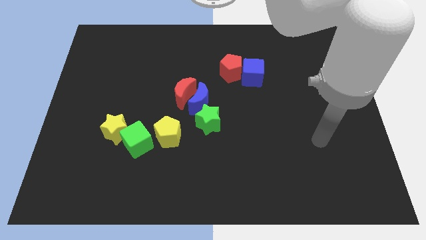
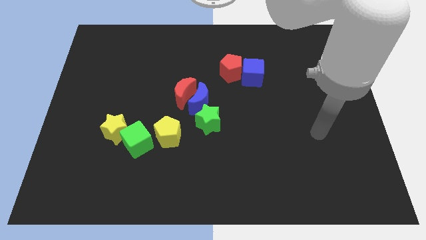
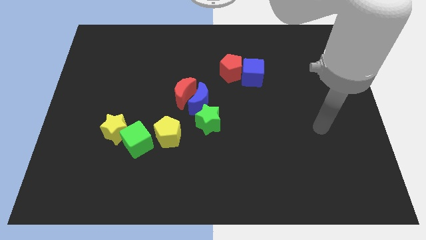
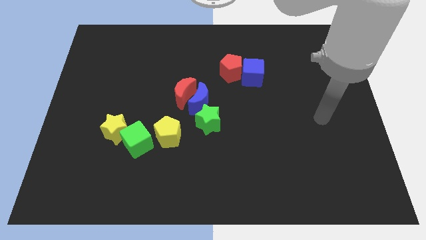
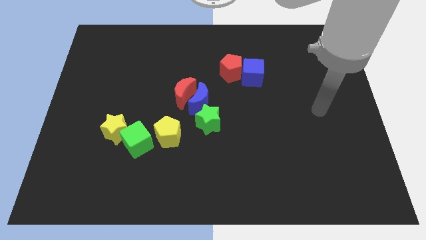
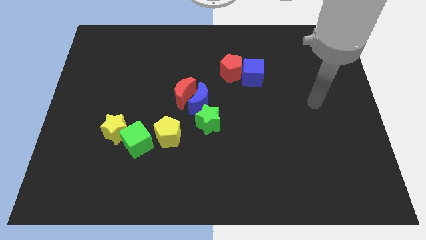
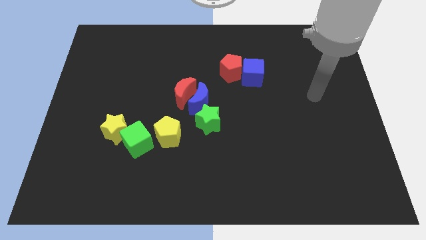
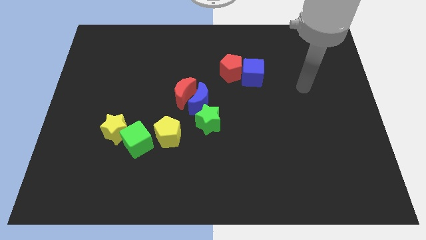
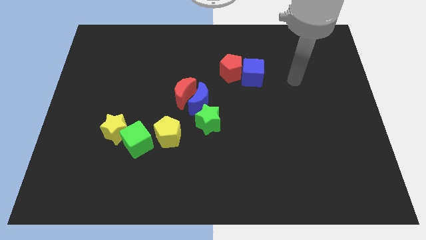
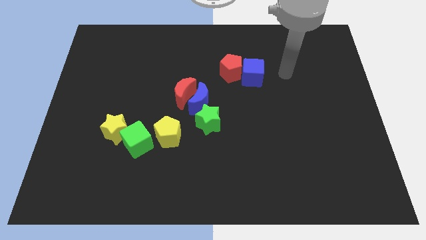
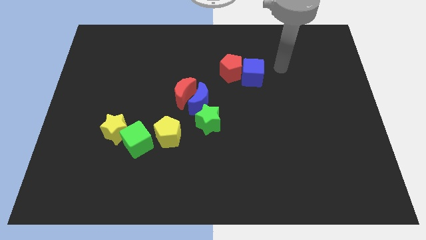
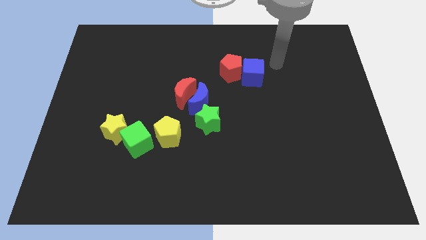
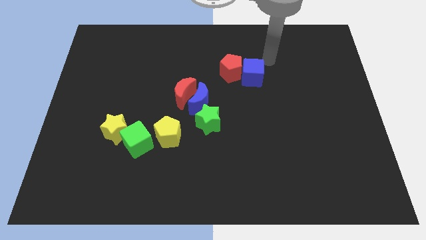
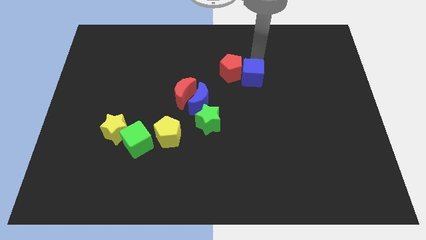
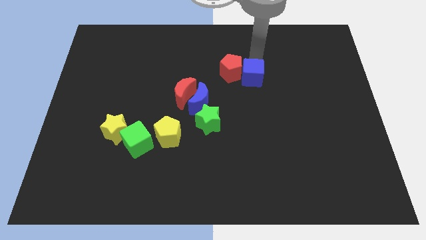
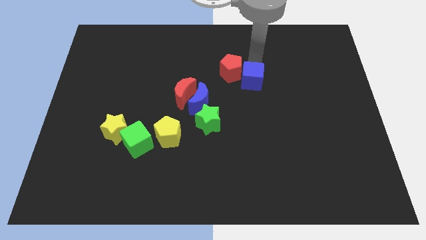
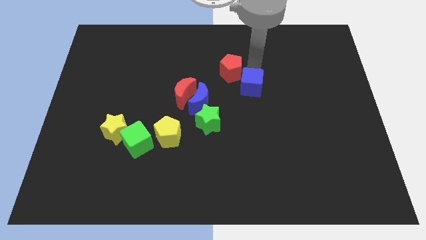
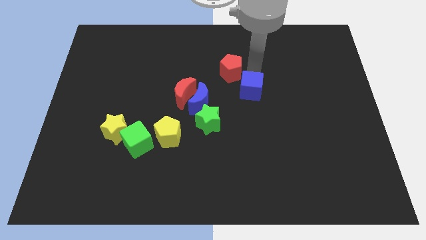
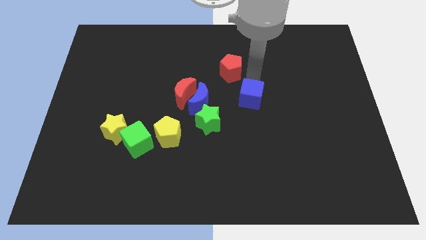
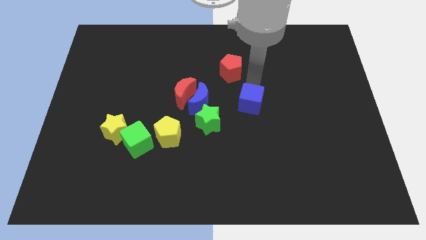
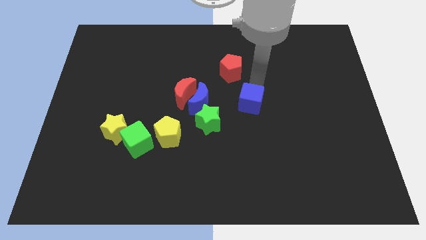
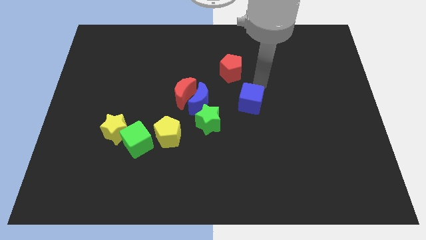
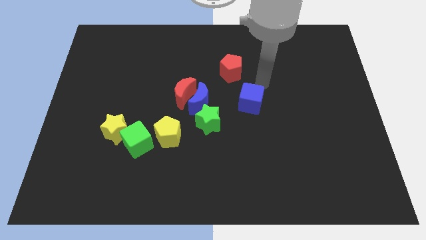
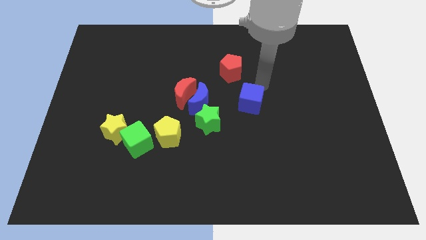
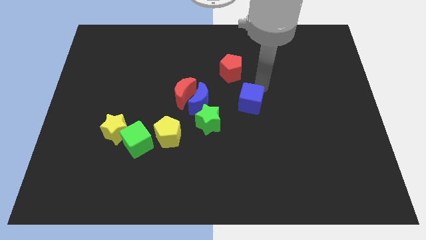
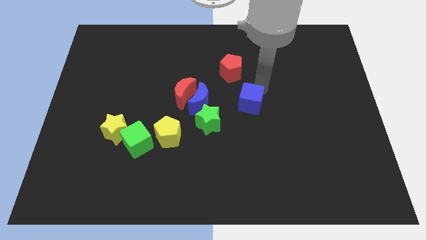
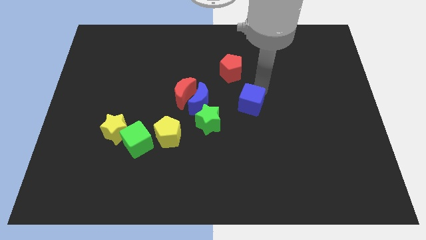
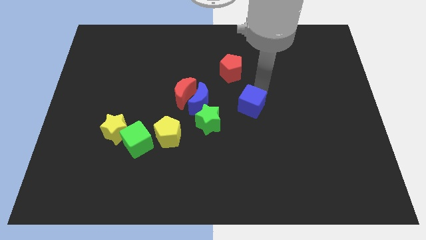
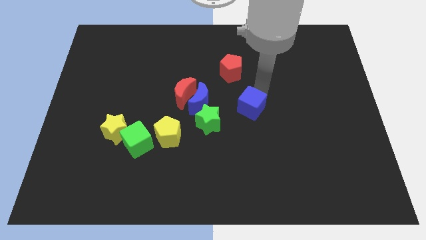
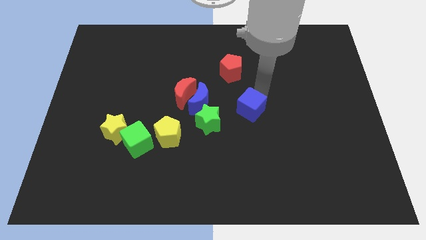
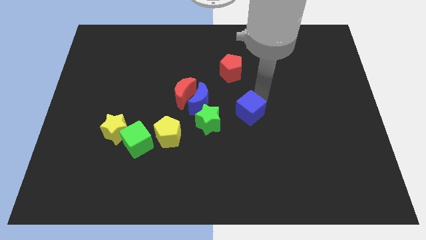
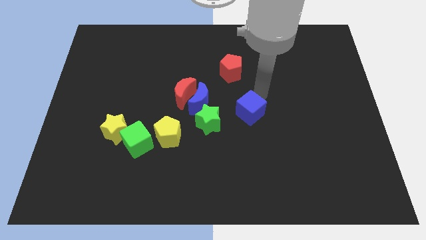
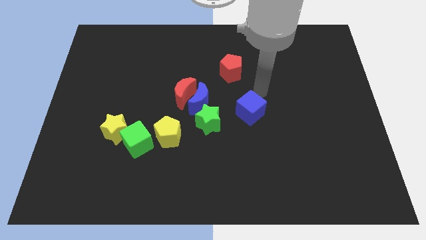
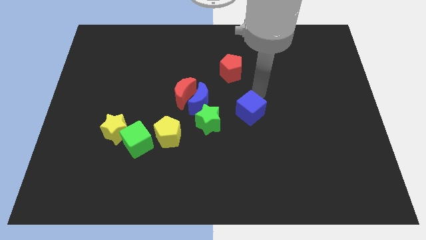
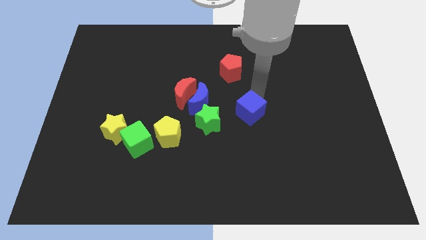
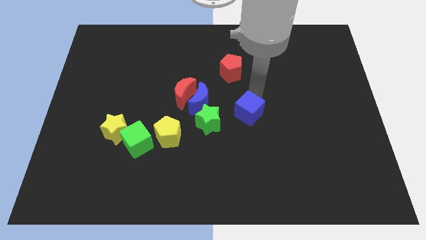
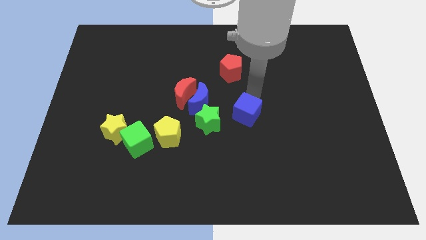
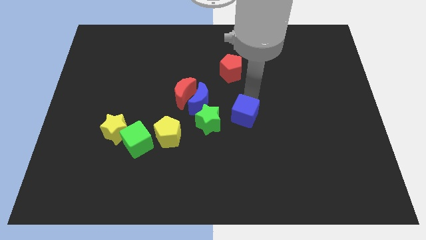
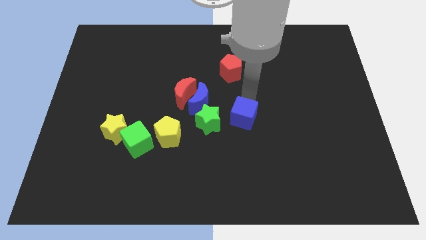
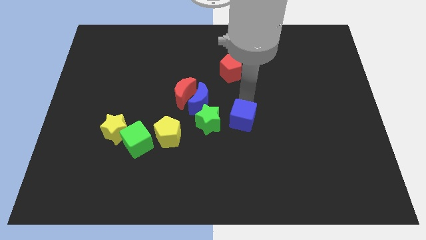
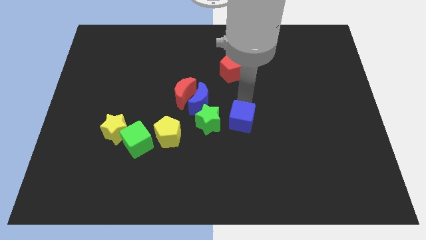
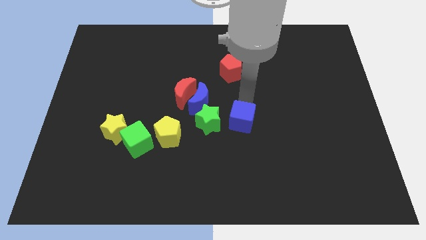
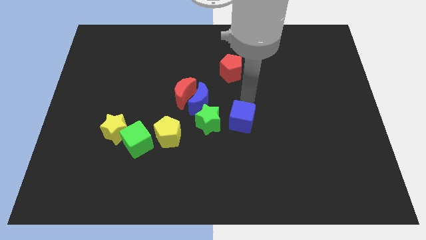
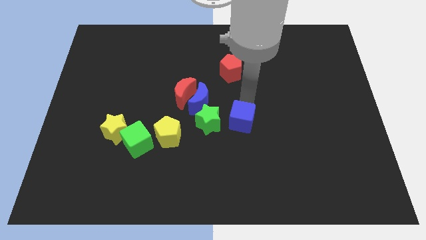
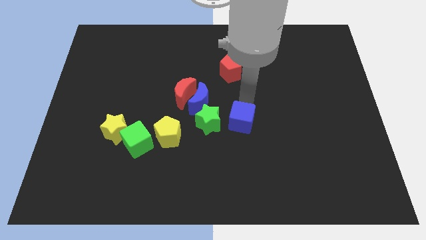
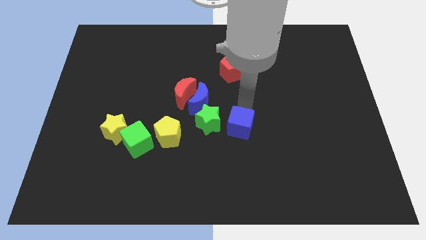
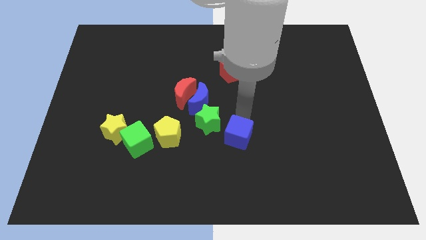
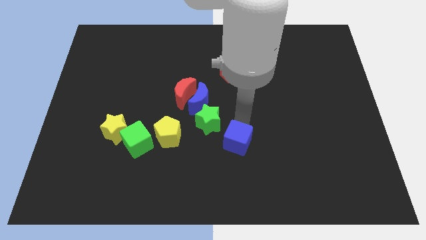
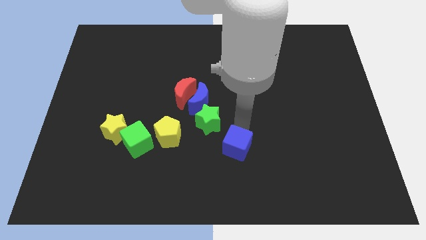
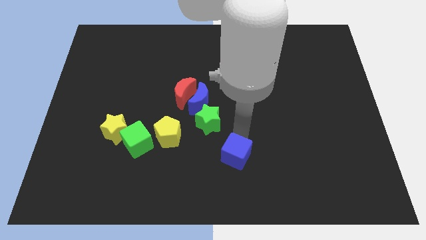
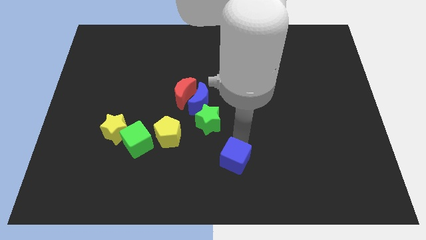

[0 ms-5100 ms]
push the blue cube to the bottom side

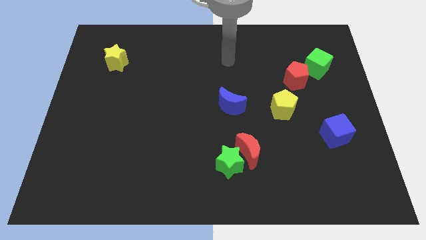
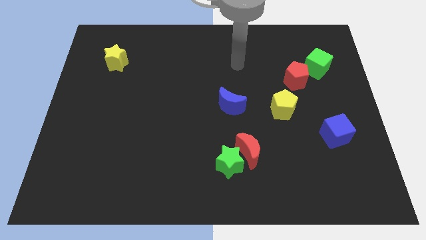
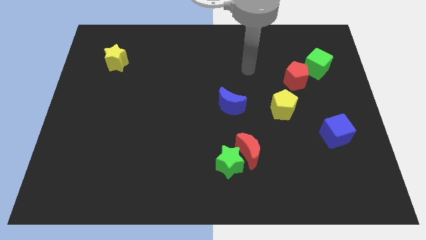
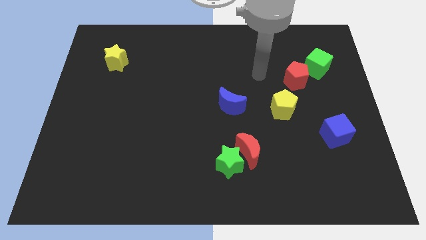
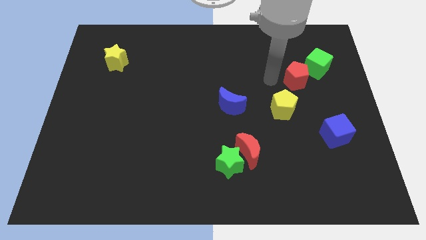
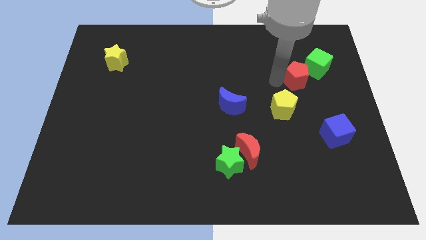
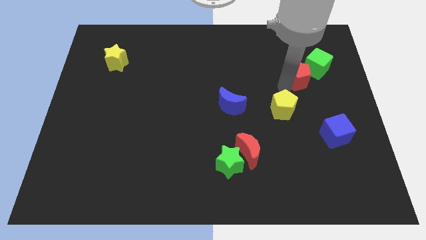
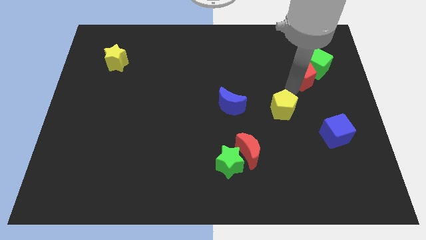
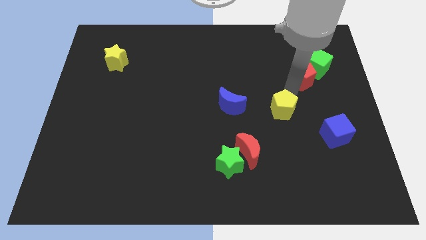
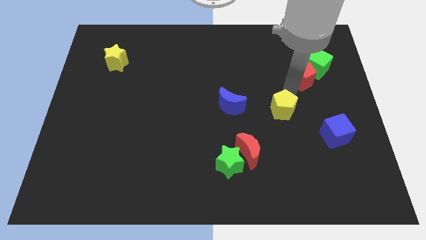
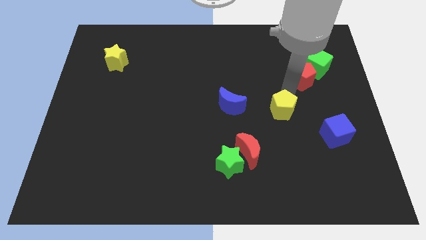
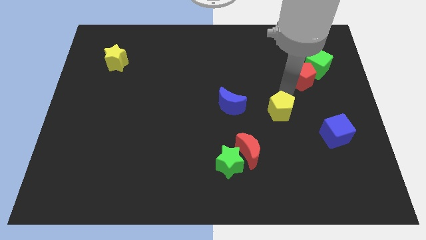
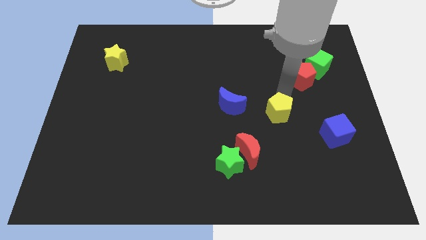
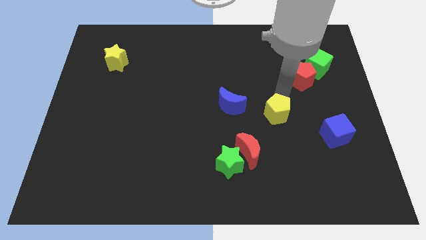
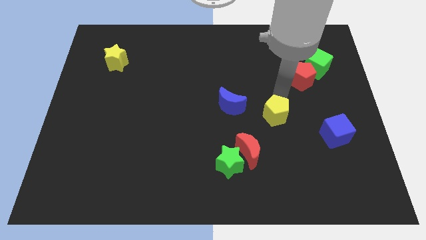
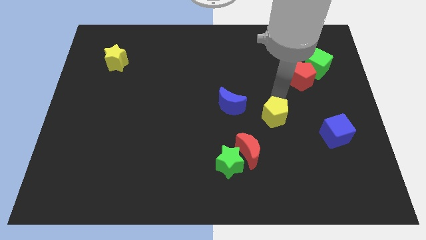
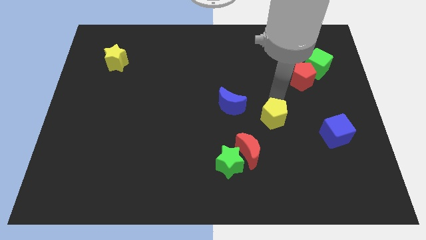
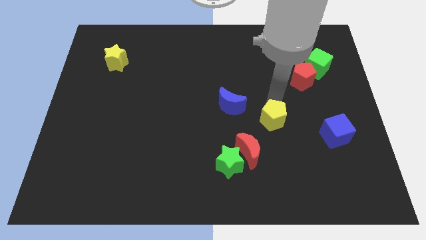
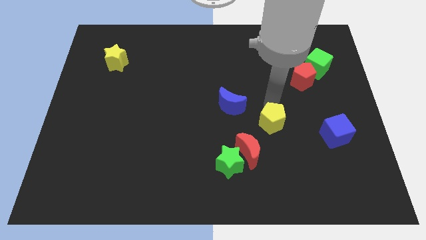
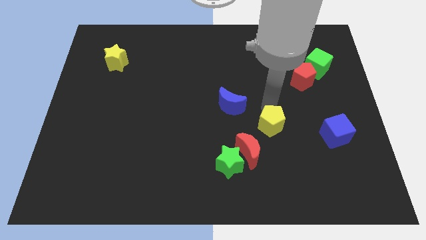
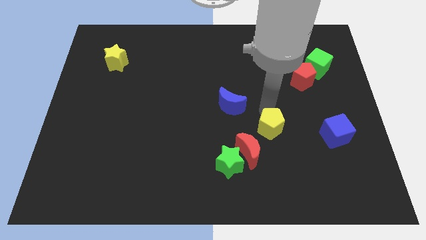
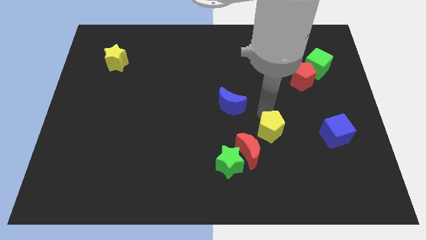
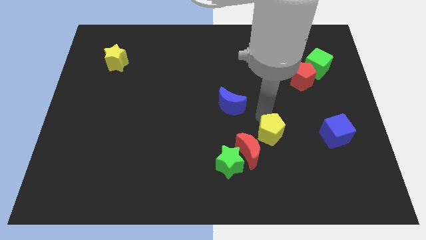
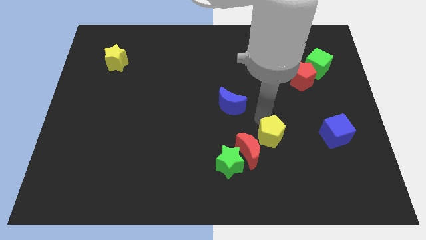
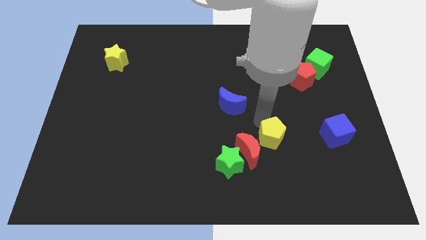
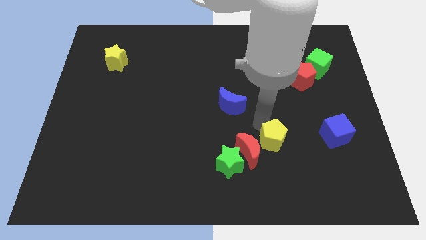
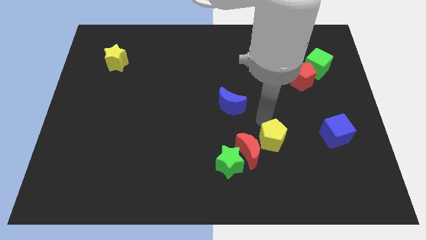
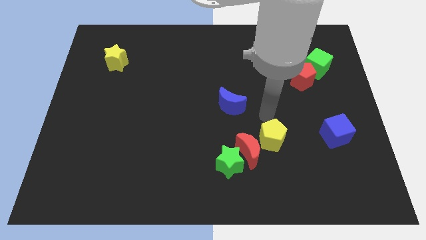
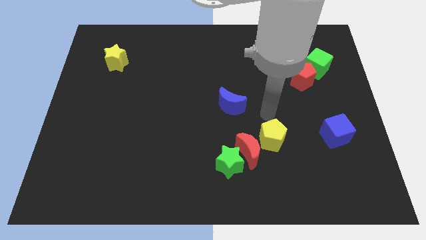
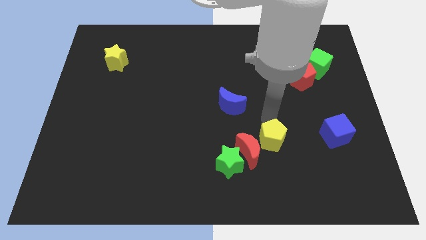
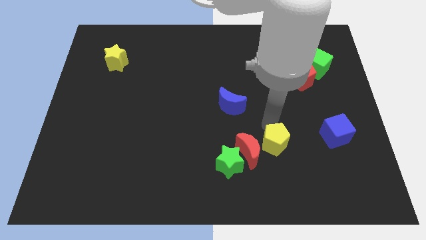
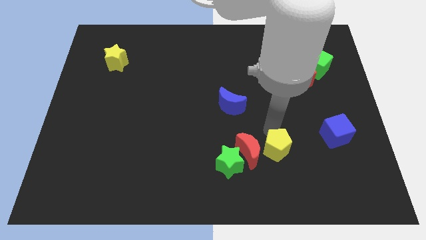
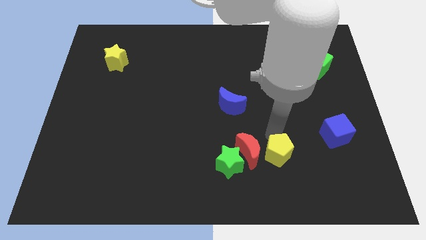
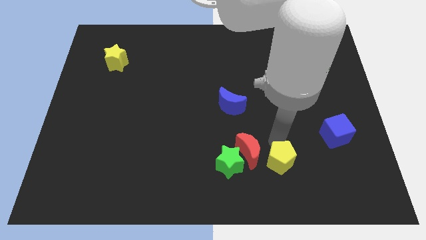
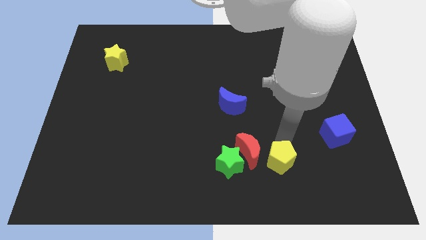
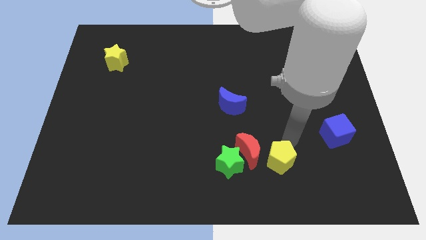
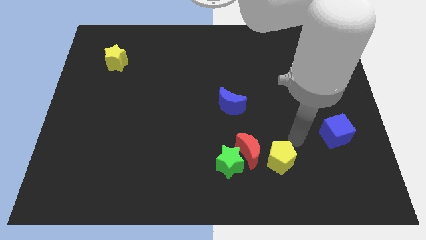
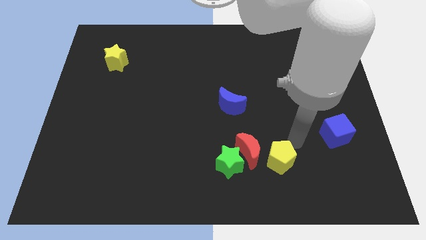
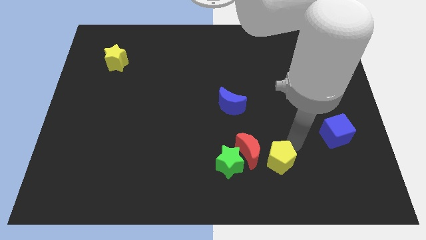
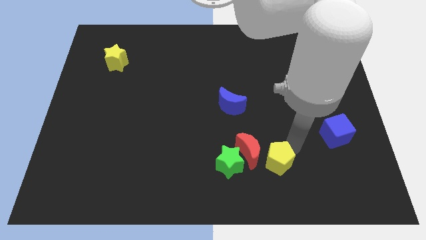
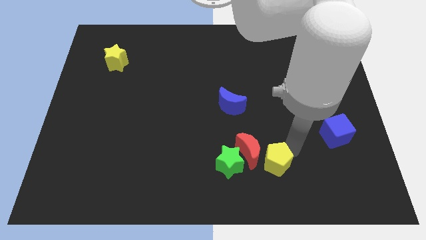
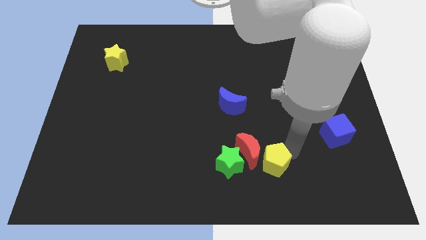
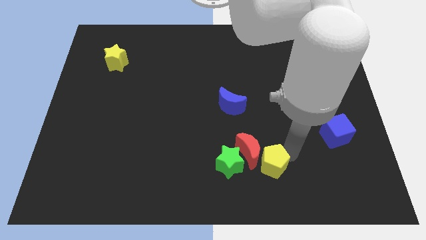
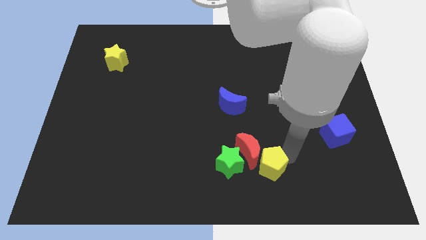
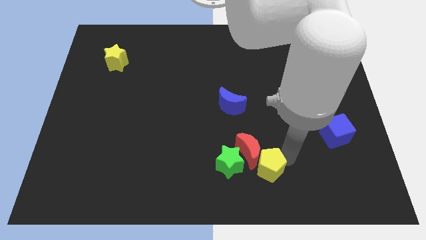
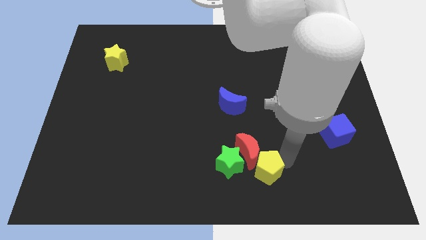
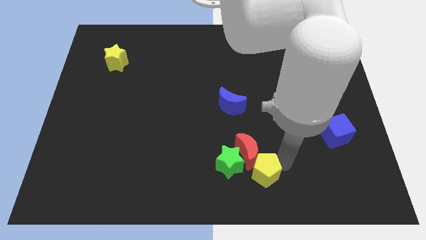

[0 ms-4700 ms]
move the yellow pentagon to the bottom
